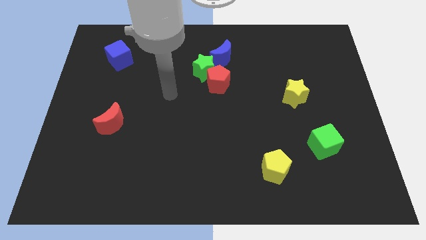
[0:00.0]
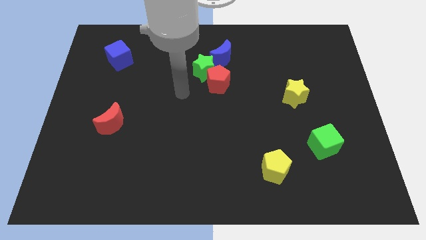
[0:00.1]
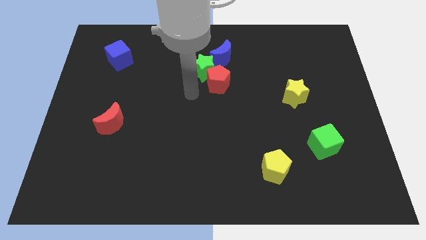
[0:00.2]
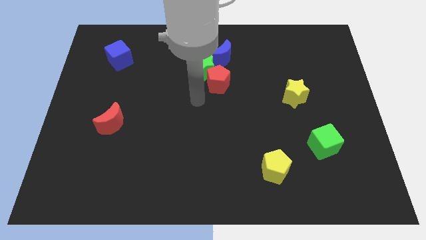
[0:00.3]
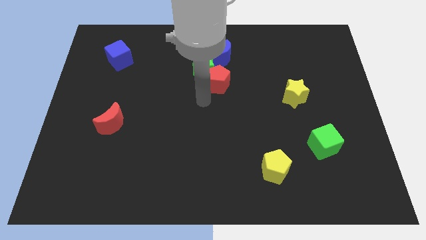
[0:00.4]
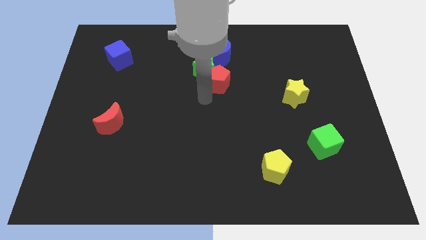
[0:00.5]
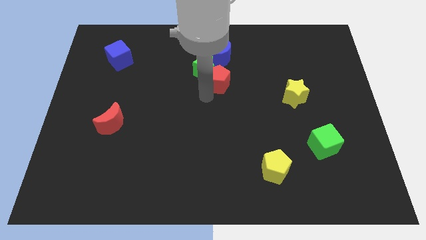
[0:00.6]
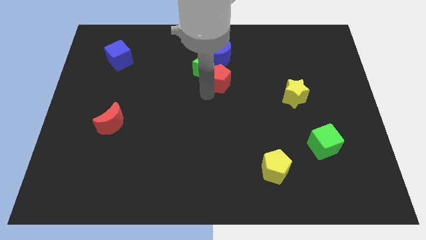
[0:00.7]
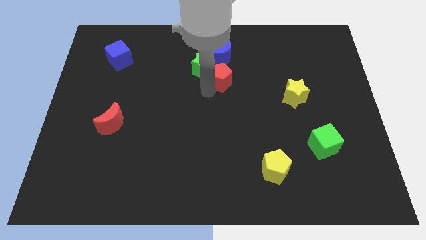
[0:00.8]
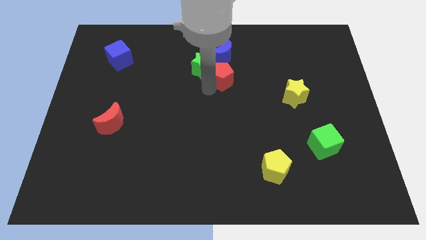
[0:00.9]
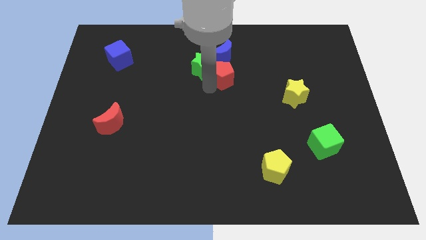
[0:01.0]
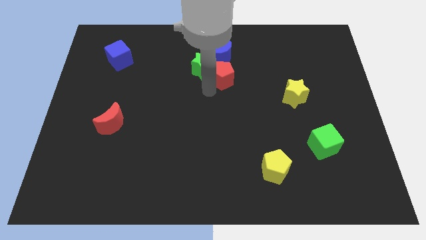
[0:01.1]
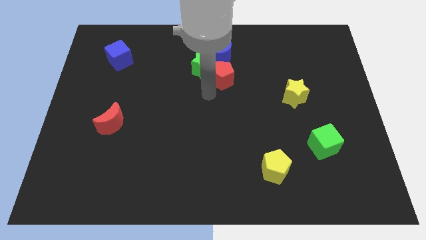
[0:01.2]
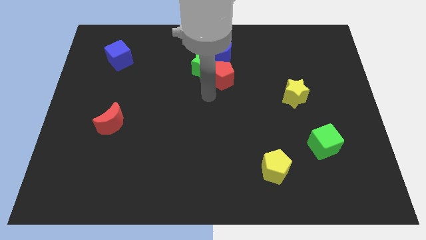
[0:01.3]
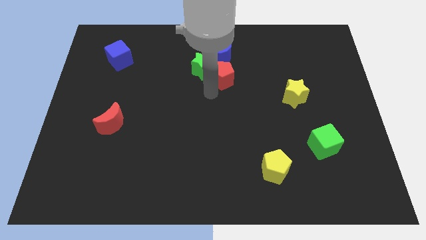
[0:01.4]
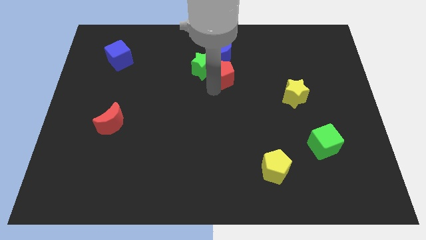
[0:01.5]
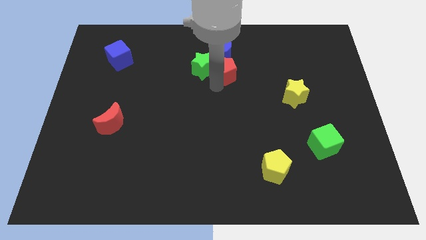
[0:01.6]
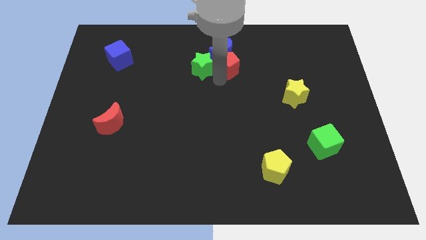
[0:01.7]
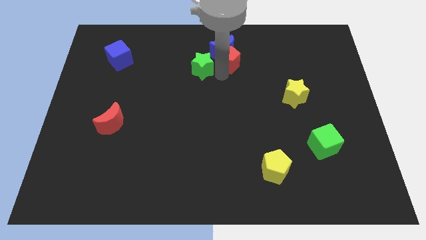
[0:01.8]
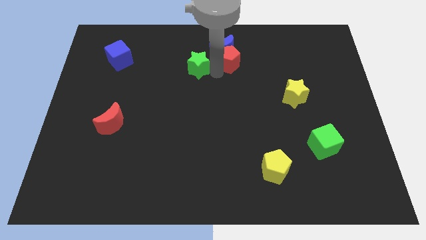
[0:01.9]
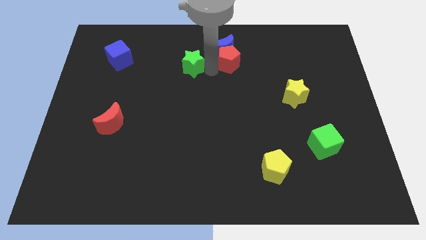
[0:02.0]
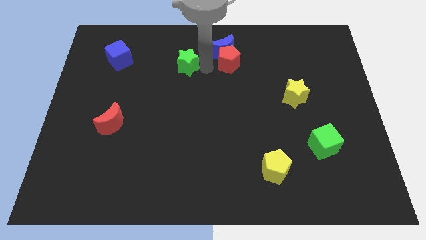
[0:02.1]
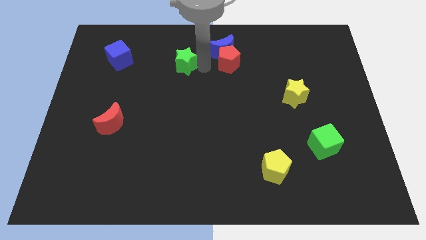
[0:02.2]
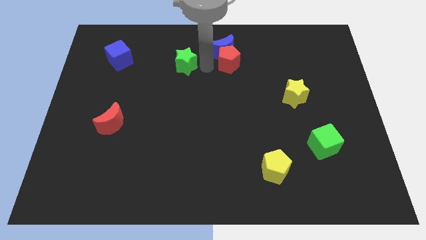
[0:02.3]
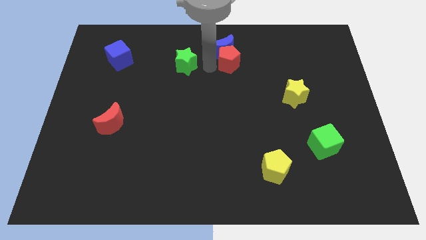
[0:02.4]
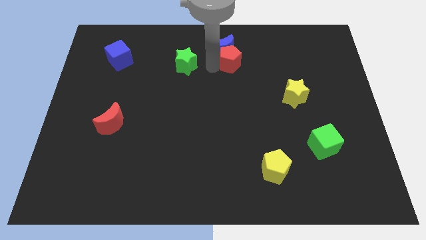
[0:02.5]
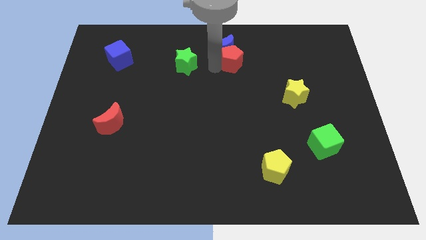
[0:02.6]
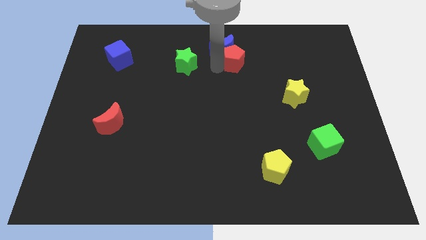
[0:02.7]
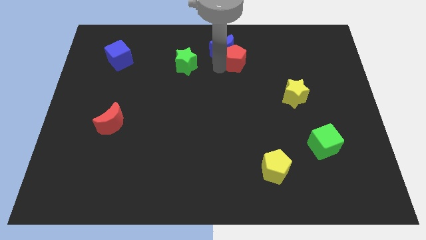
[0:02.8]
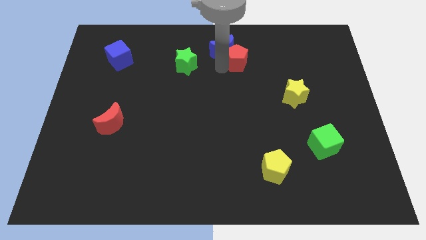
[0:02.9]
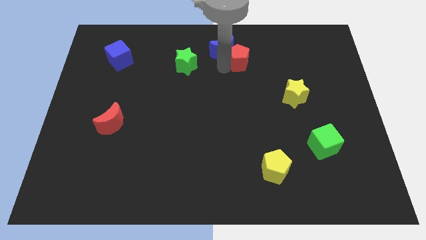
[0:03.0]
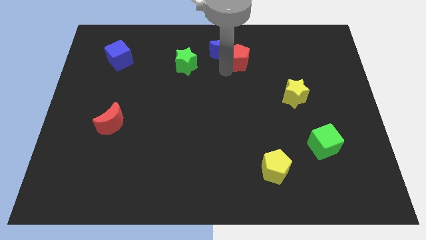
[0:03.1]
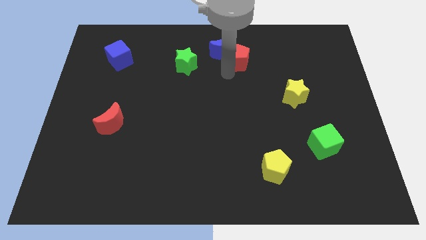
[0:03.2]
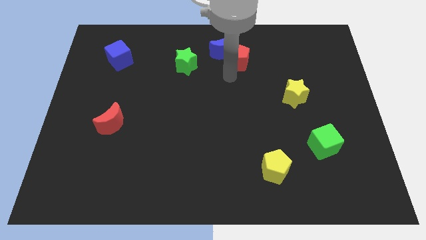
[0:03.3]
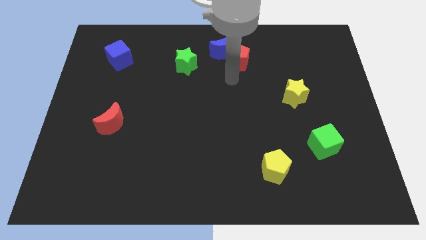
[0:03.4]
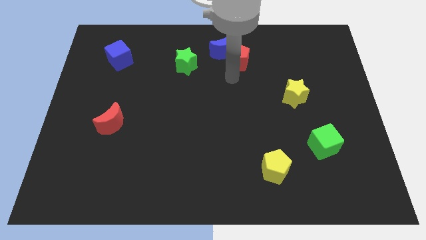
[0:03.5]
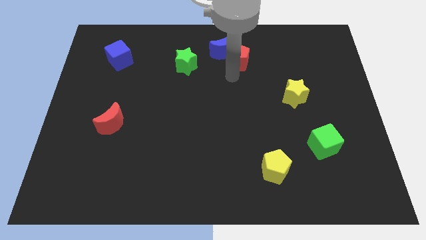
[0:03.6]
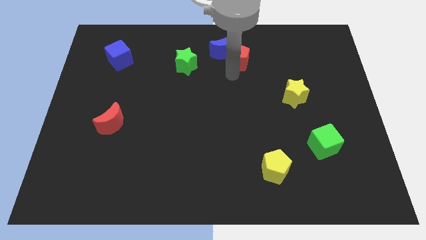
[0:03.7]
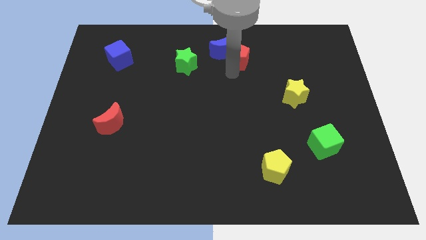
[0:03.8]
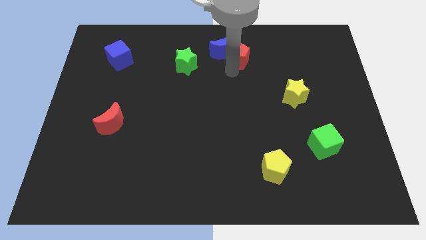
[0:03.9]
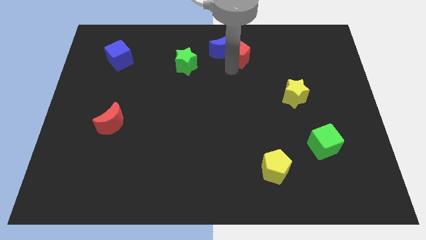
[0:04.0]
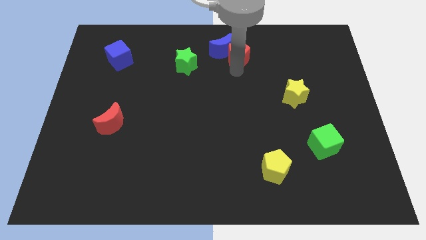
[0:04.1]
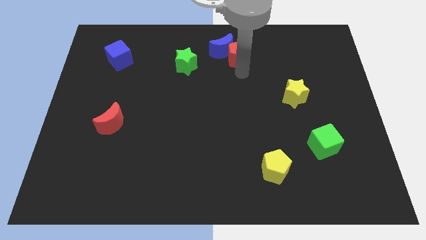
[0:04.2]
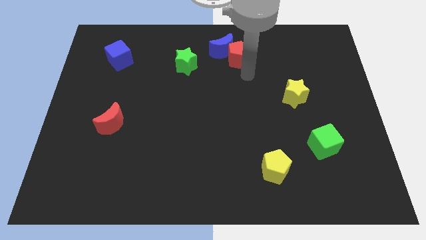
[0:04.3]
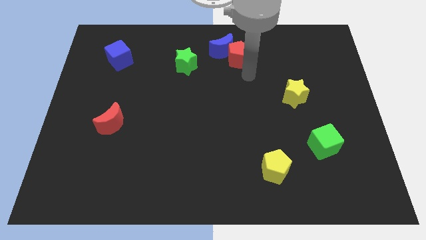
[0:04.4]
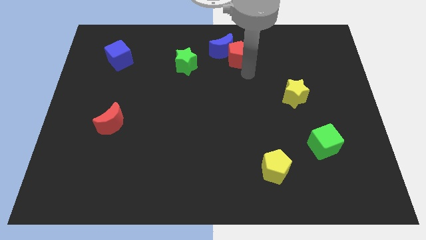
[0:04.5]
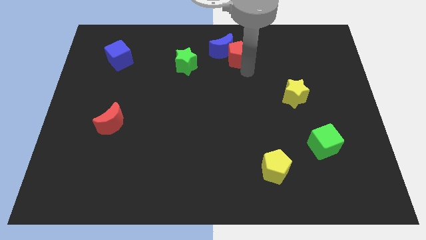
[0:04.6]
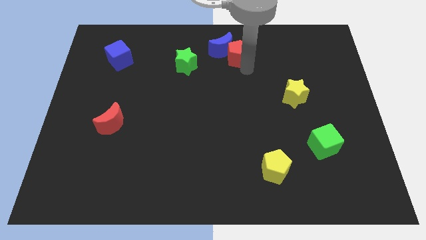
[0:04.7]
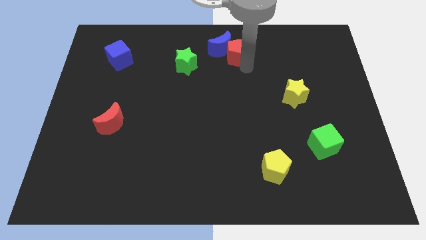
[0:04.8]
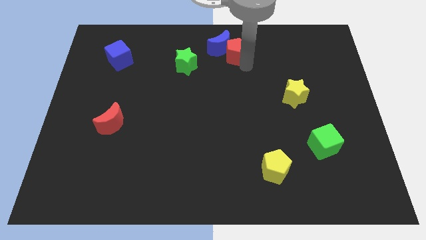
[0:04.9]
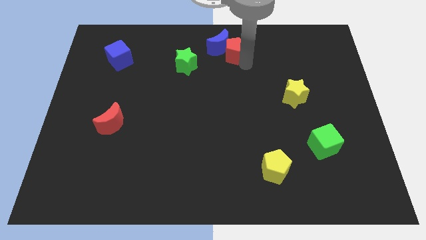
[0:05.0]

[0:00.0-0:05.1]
slide the red pentagon to the top side

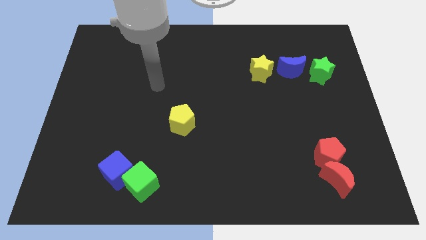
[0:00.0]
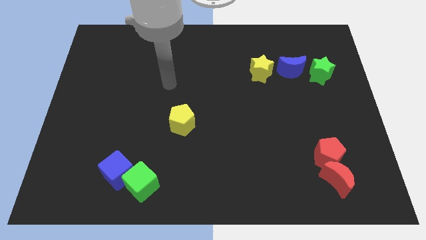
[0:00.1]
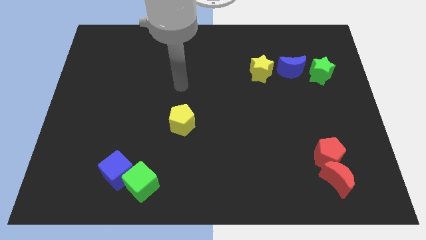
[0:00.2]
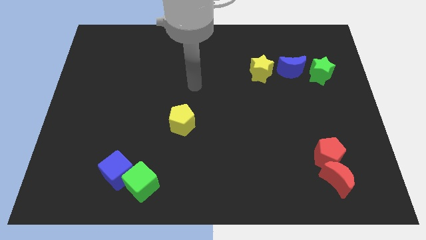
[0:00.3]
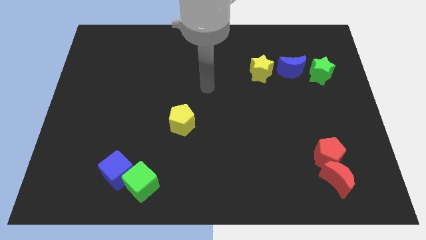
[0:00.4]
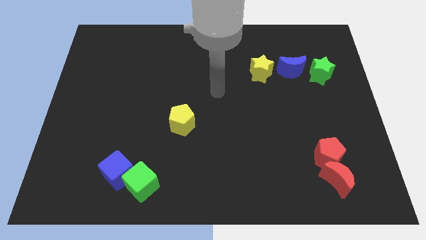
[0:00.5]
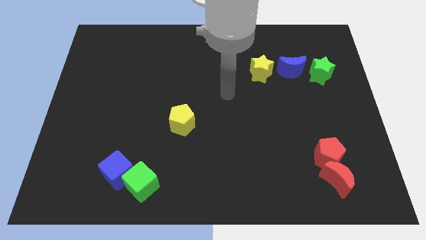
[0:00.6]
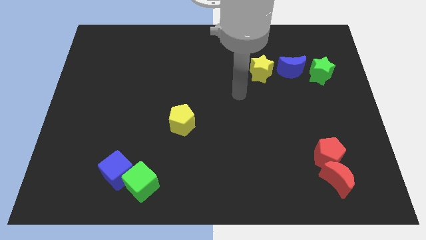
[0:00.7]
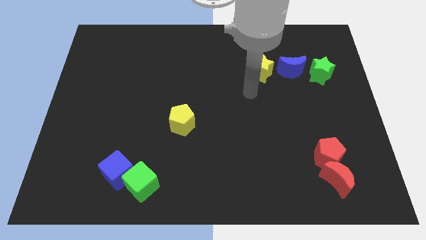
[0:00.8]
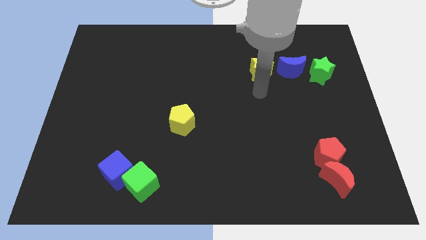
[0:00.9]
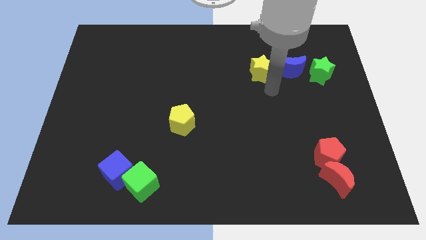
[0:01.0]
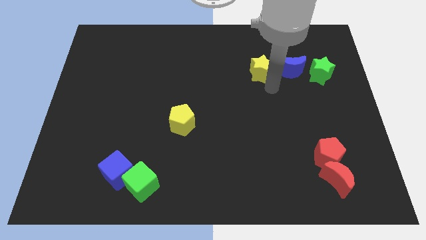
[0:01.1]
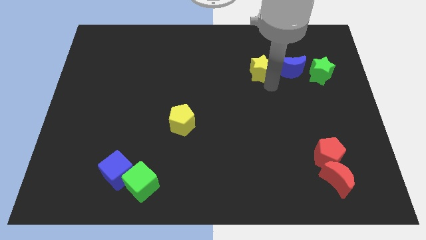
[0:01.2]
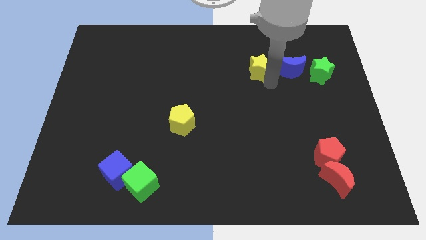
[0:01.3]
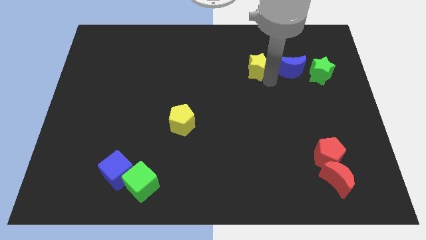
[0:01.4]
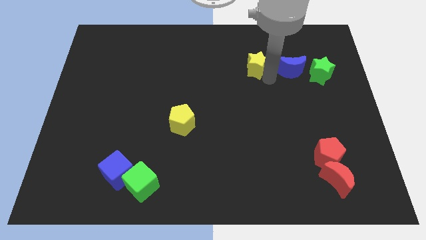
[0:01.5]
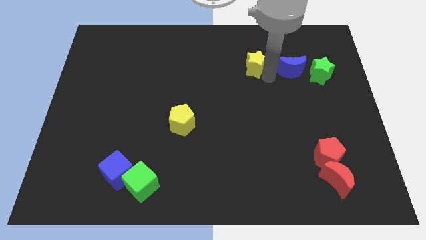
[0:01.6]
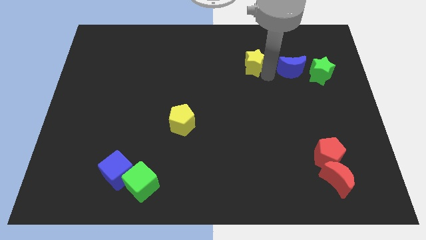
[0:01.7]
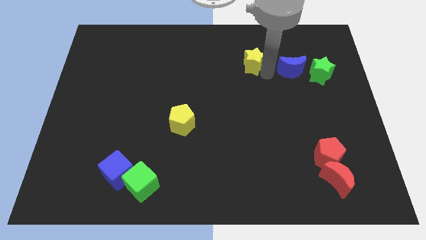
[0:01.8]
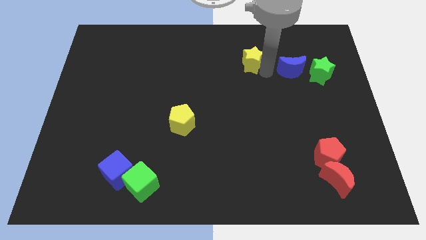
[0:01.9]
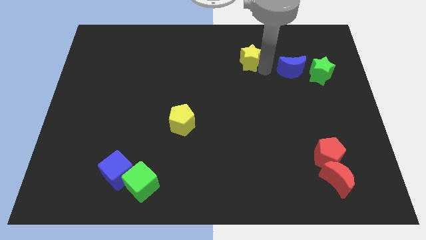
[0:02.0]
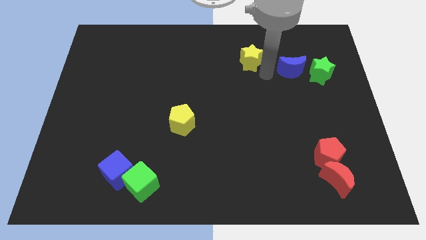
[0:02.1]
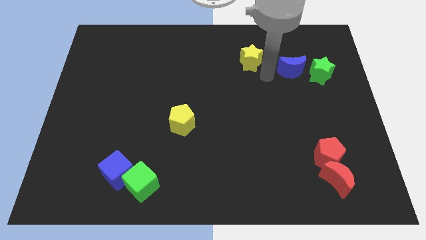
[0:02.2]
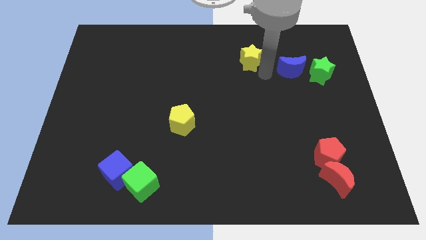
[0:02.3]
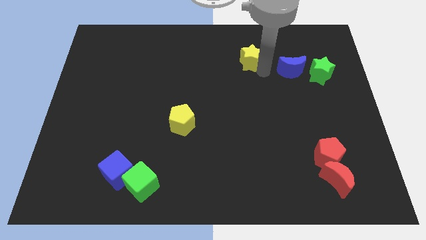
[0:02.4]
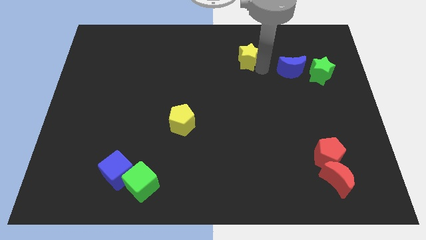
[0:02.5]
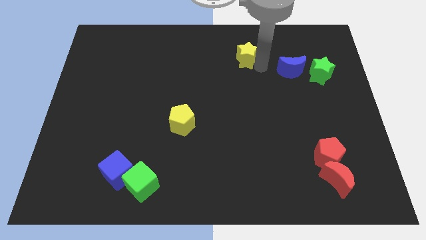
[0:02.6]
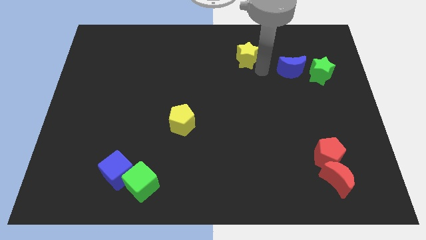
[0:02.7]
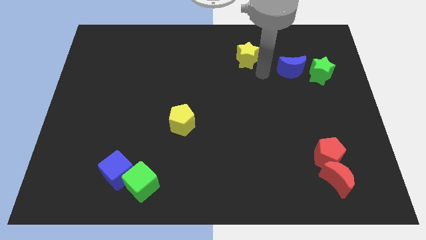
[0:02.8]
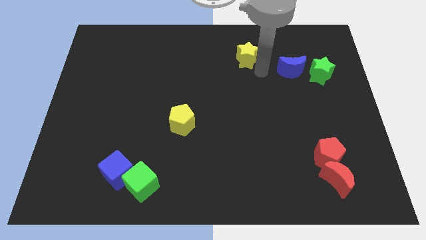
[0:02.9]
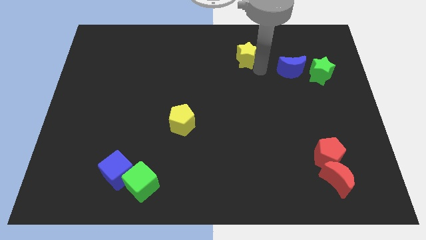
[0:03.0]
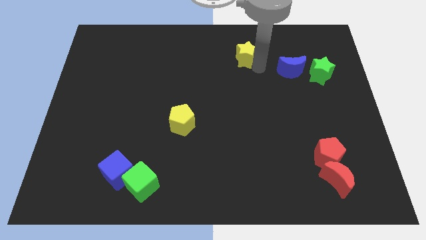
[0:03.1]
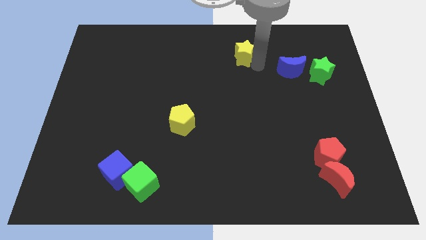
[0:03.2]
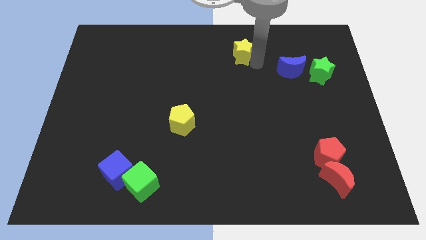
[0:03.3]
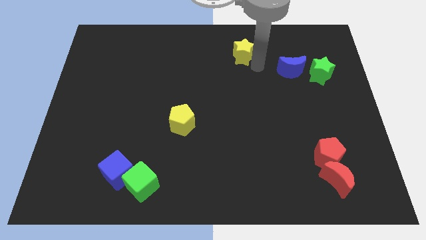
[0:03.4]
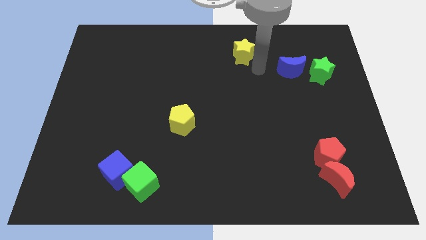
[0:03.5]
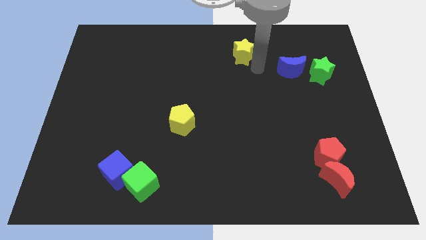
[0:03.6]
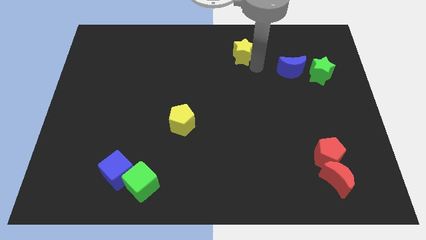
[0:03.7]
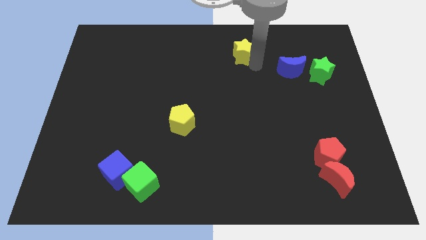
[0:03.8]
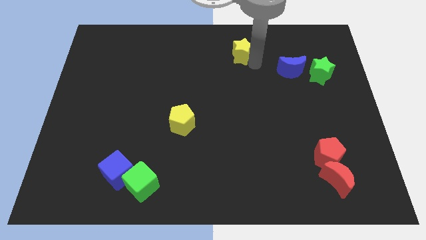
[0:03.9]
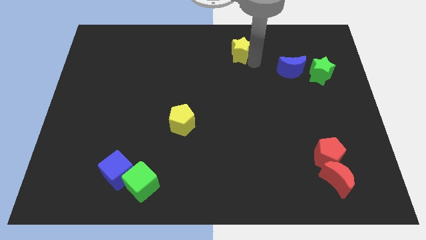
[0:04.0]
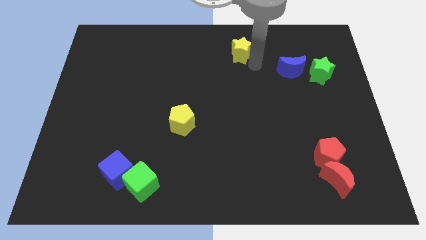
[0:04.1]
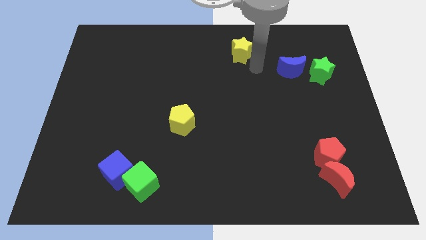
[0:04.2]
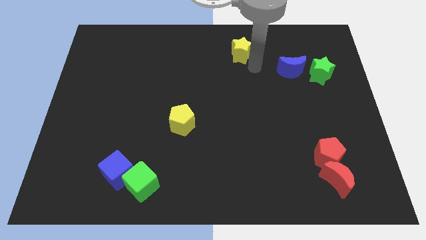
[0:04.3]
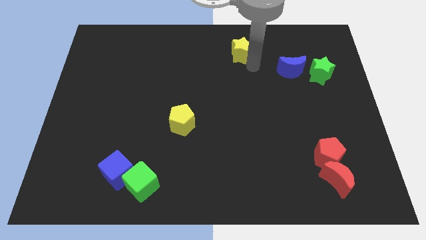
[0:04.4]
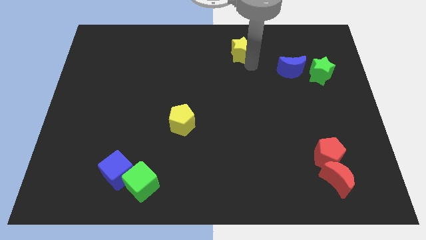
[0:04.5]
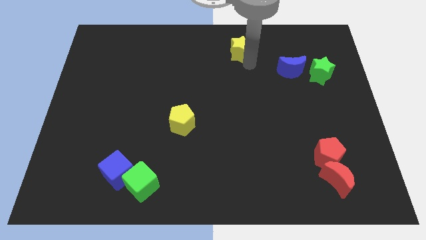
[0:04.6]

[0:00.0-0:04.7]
put the yellow star to the top side
